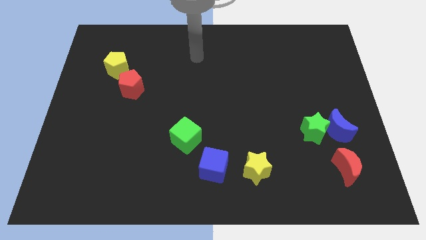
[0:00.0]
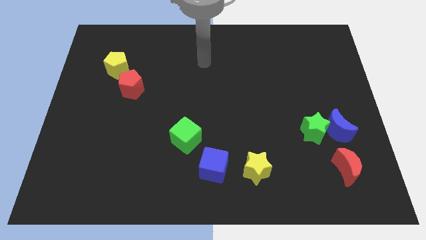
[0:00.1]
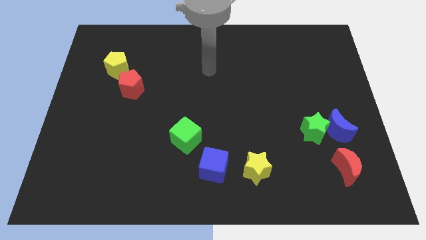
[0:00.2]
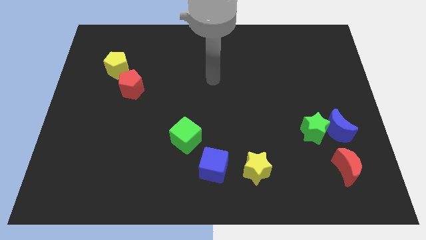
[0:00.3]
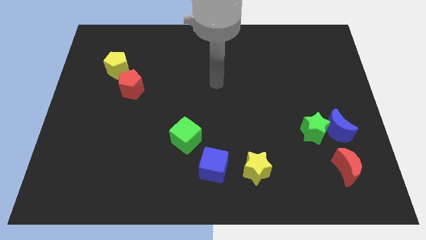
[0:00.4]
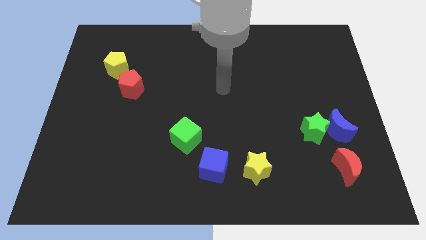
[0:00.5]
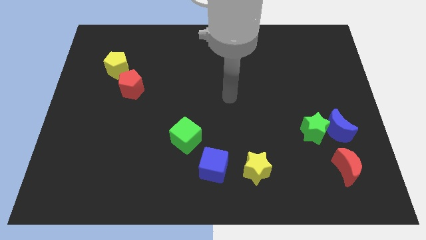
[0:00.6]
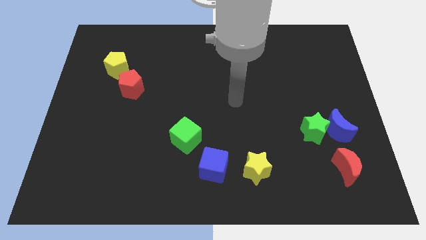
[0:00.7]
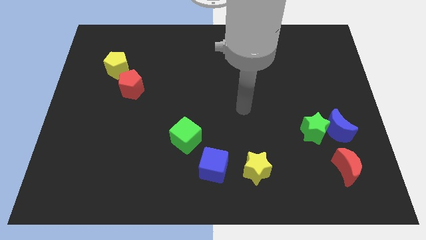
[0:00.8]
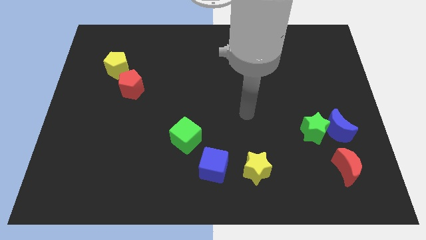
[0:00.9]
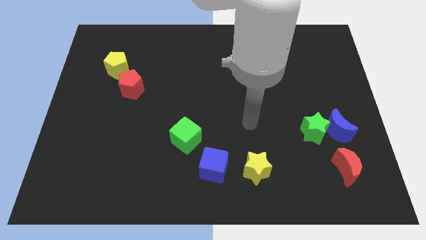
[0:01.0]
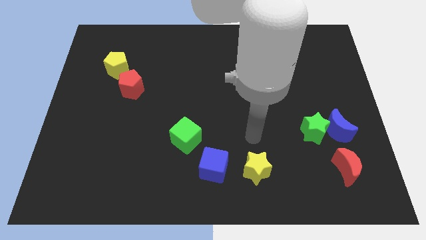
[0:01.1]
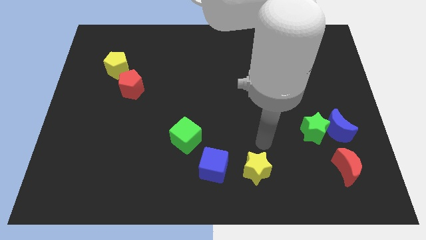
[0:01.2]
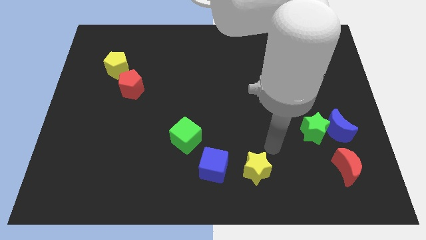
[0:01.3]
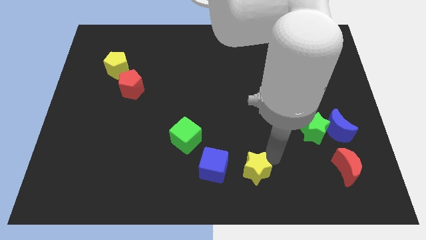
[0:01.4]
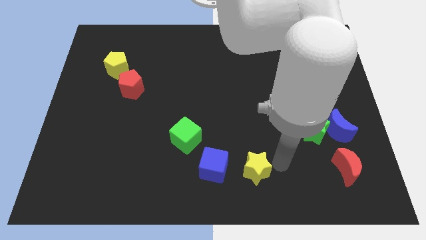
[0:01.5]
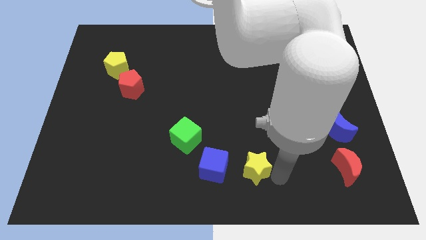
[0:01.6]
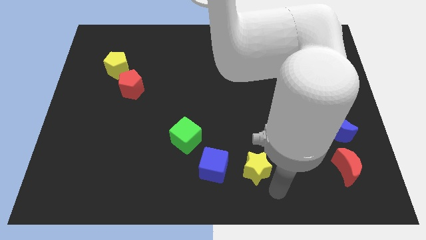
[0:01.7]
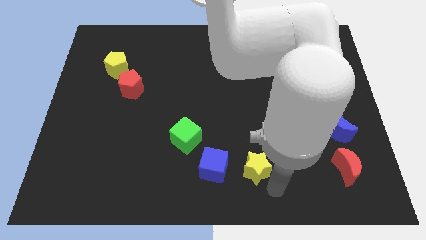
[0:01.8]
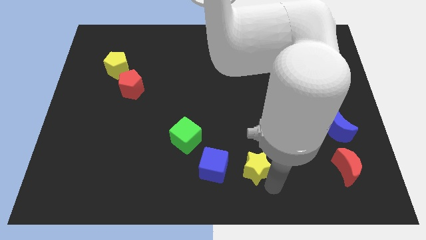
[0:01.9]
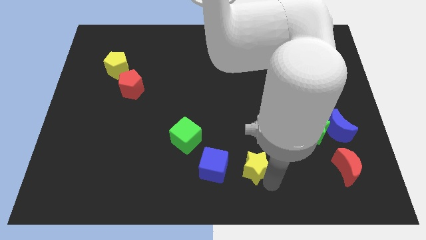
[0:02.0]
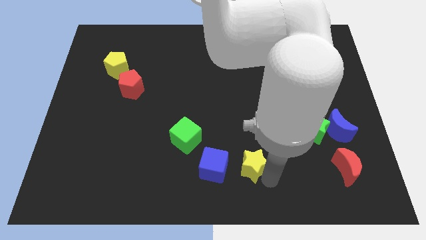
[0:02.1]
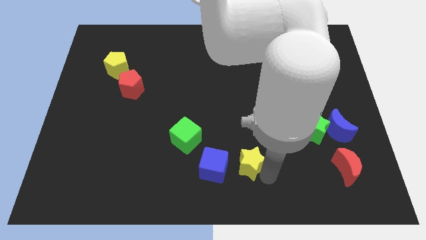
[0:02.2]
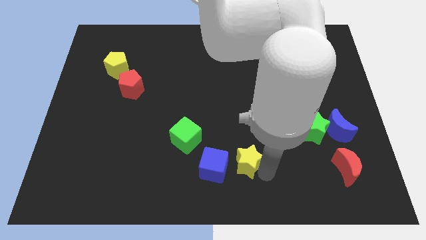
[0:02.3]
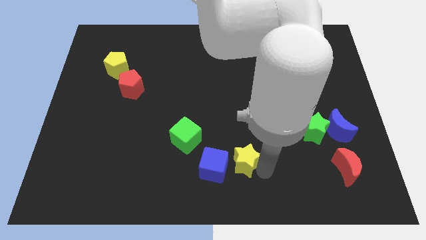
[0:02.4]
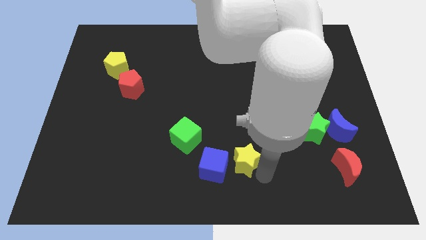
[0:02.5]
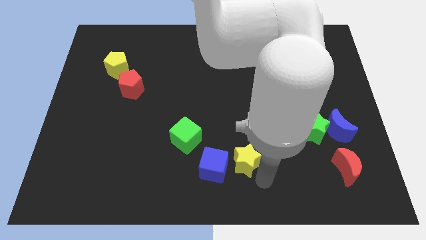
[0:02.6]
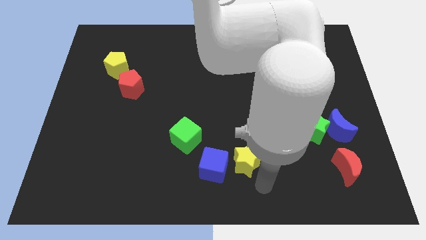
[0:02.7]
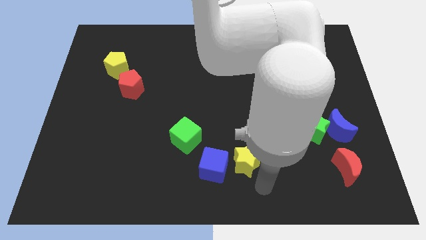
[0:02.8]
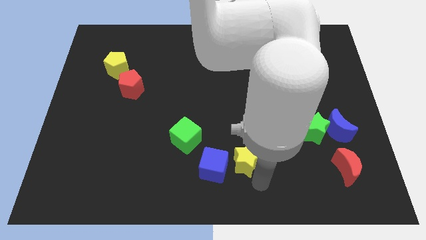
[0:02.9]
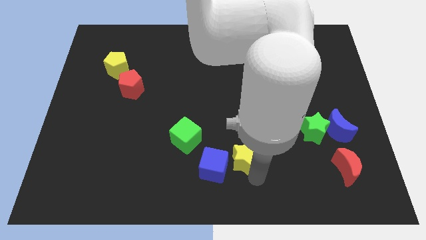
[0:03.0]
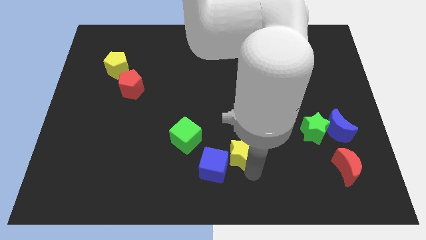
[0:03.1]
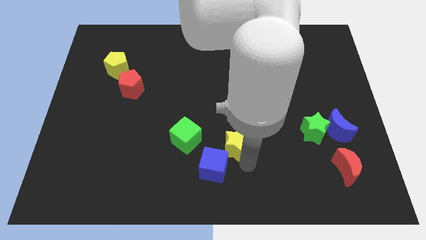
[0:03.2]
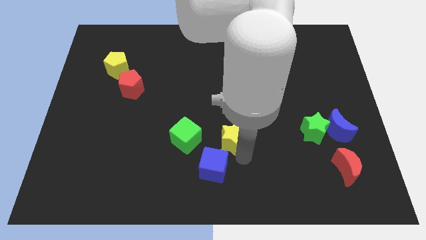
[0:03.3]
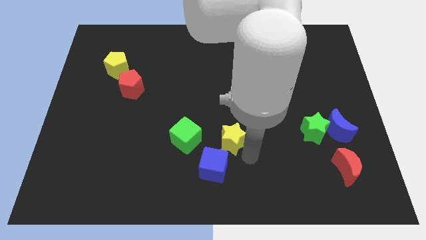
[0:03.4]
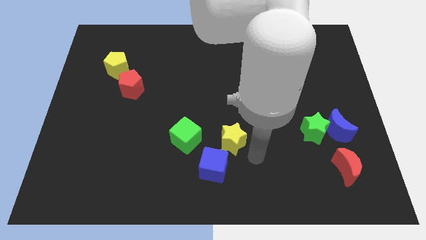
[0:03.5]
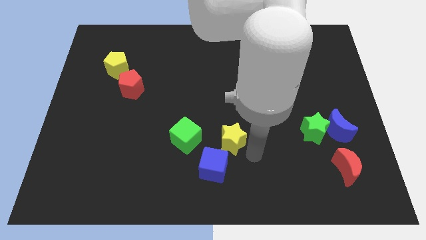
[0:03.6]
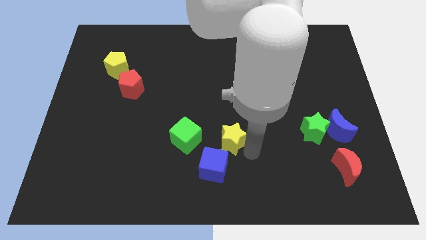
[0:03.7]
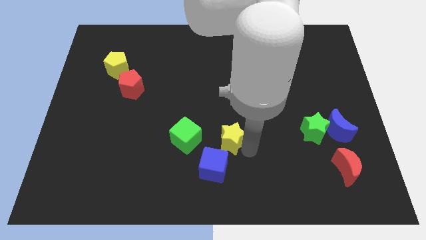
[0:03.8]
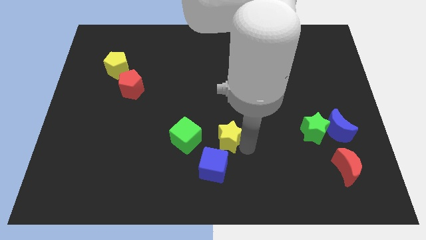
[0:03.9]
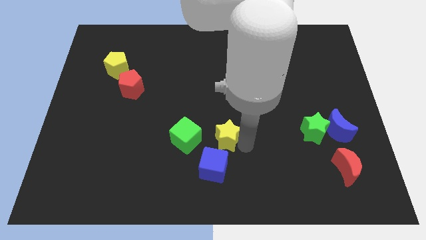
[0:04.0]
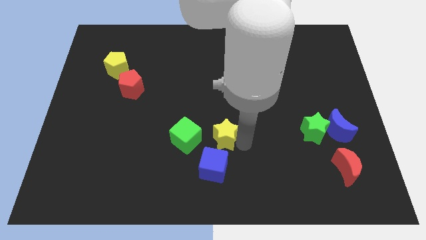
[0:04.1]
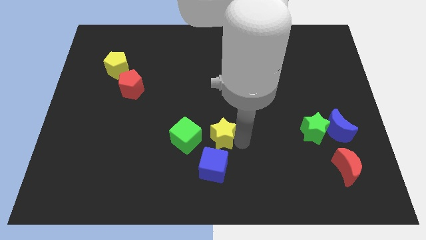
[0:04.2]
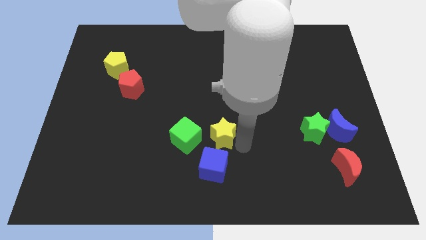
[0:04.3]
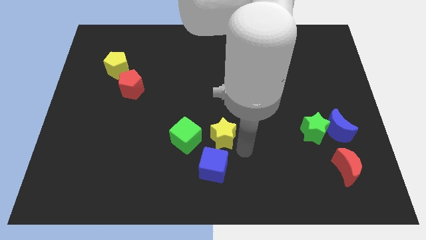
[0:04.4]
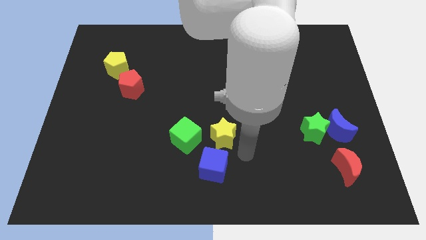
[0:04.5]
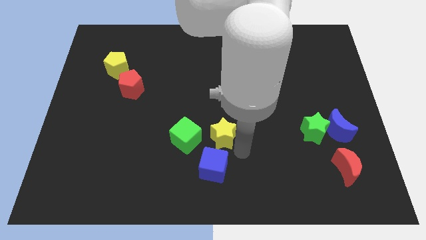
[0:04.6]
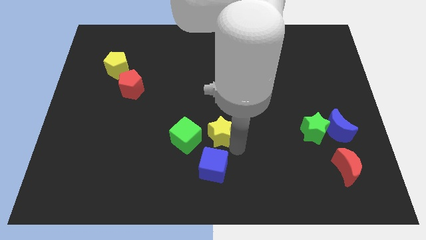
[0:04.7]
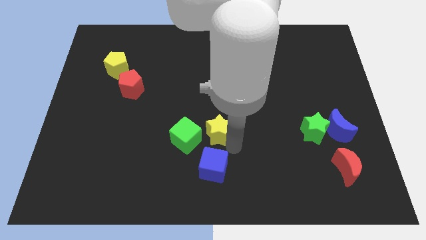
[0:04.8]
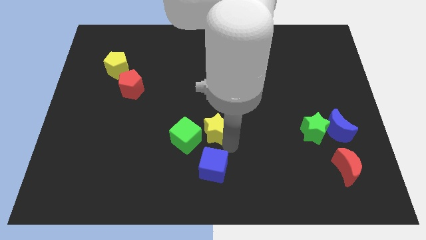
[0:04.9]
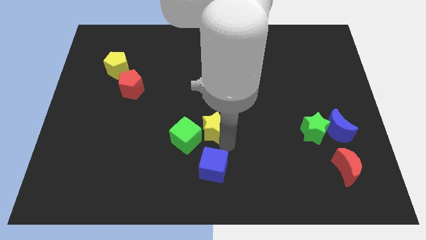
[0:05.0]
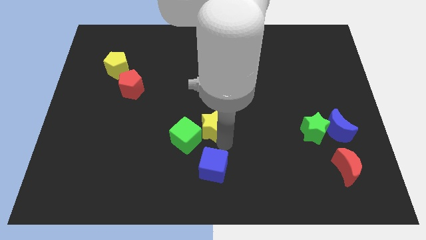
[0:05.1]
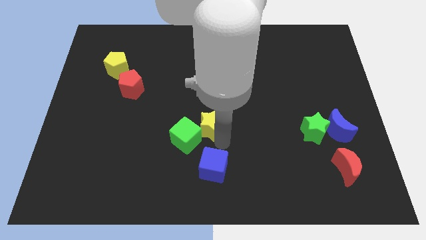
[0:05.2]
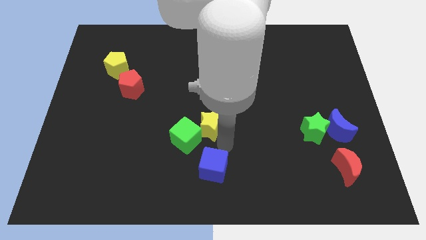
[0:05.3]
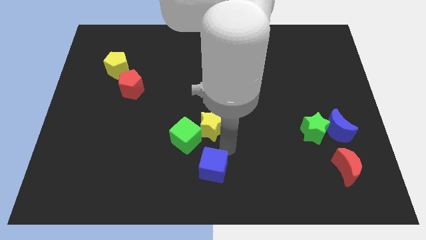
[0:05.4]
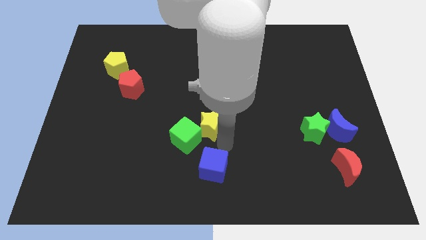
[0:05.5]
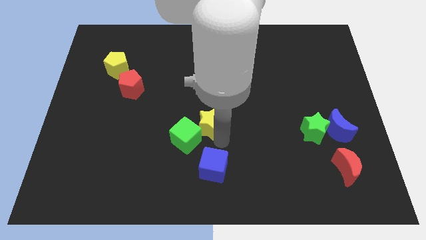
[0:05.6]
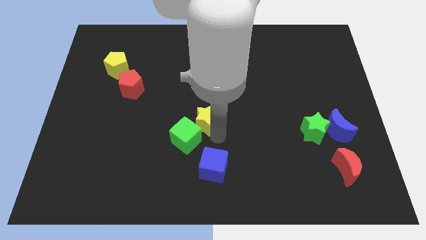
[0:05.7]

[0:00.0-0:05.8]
slide the yellow star to the top of the green cube

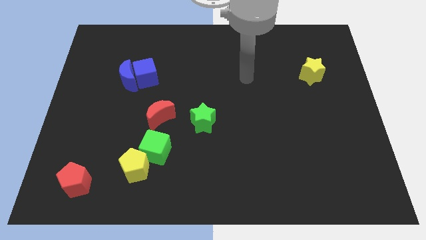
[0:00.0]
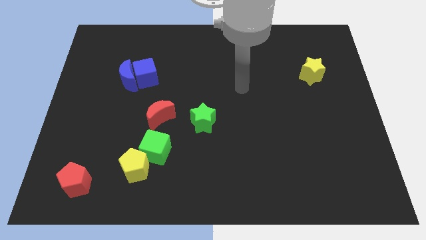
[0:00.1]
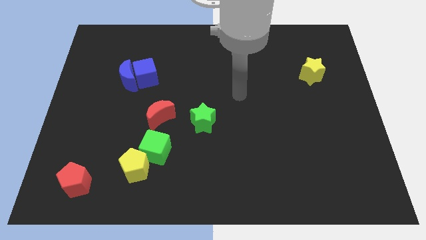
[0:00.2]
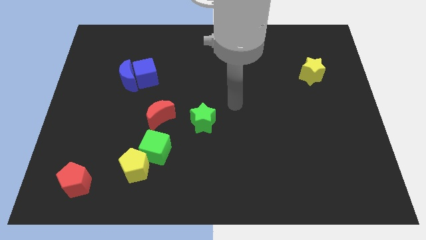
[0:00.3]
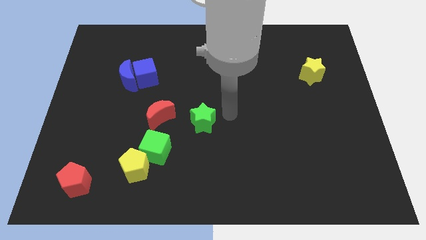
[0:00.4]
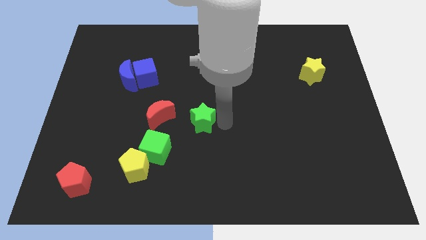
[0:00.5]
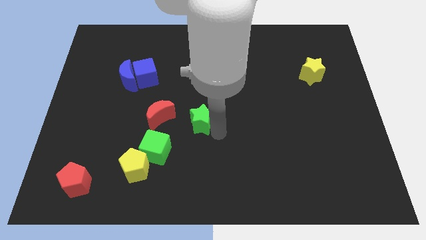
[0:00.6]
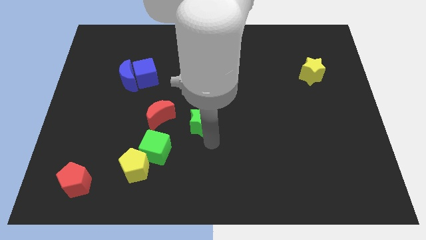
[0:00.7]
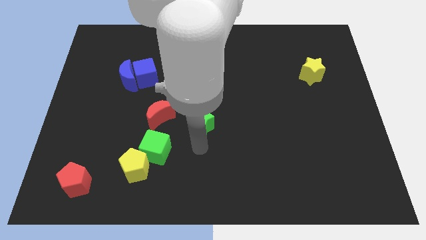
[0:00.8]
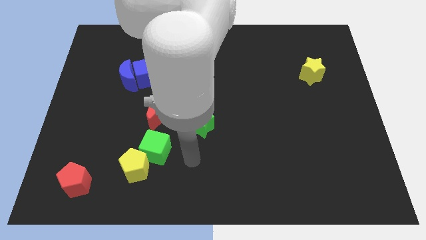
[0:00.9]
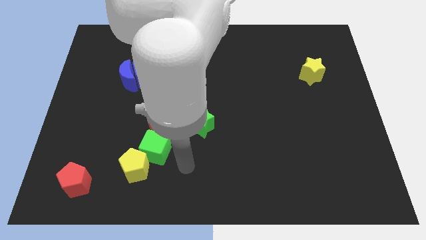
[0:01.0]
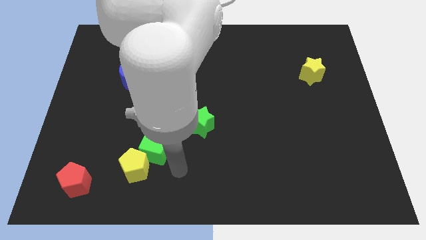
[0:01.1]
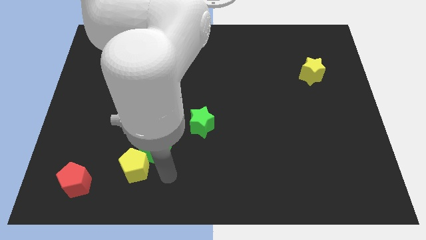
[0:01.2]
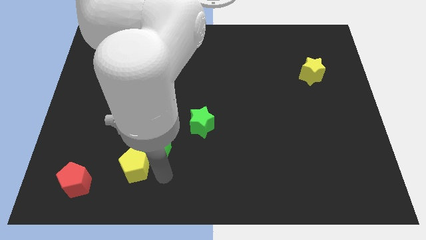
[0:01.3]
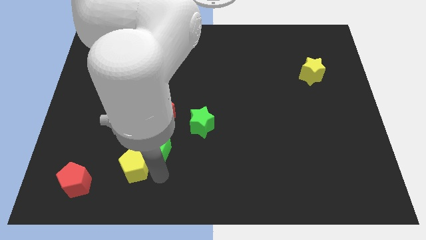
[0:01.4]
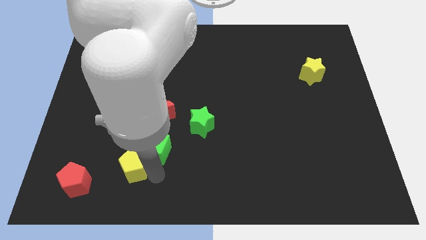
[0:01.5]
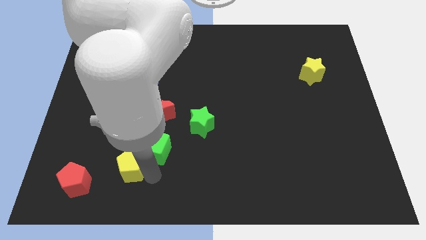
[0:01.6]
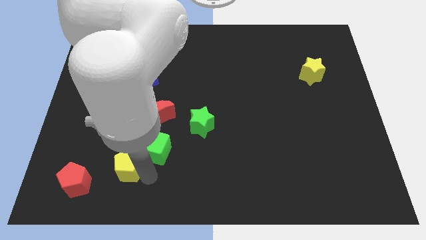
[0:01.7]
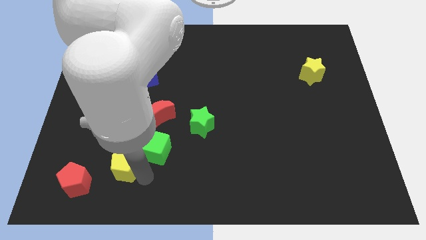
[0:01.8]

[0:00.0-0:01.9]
move the yellow pentagon diagonally up and to the right of the red pentagon

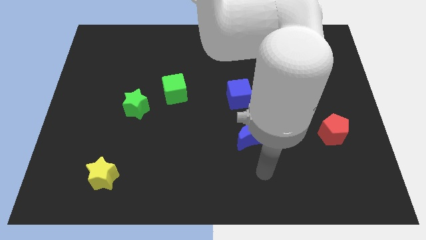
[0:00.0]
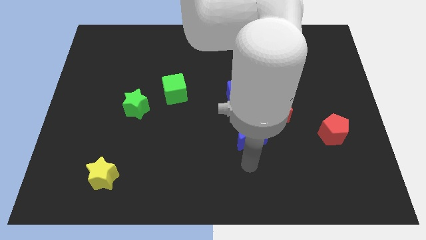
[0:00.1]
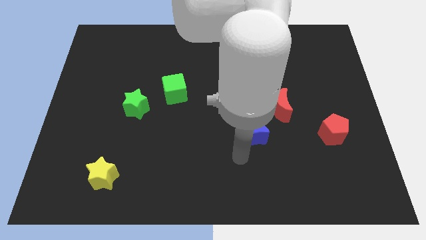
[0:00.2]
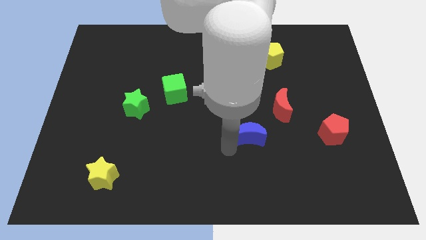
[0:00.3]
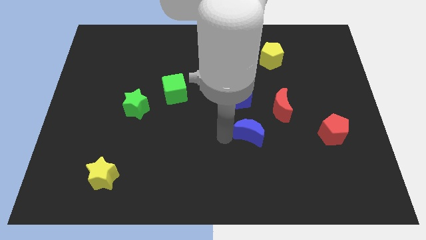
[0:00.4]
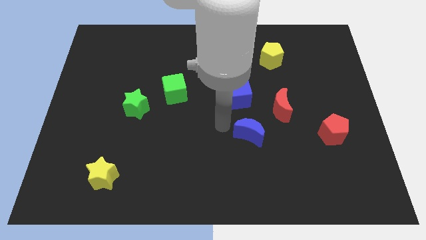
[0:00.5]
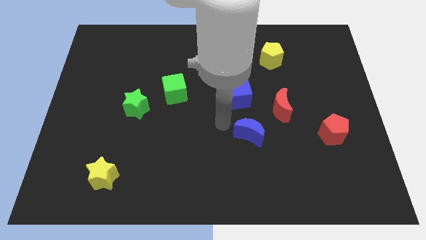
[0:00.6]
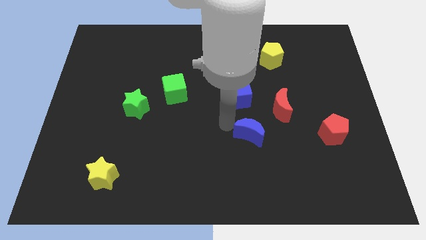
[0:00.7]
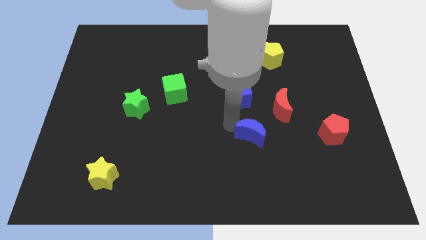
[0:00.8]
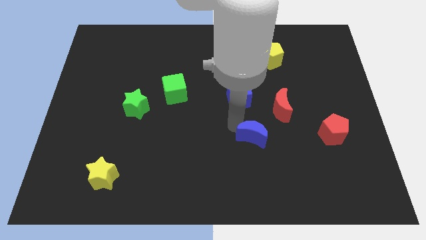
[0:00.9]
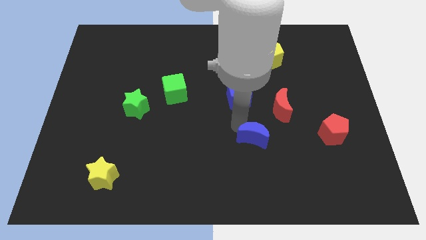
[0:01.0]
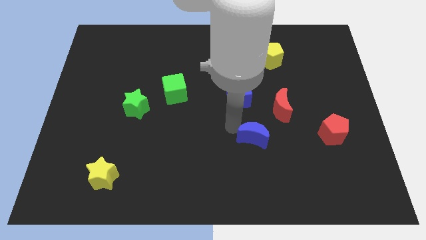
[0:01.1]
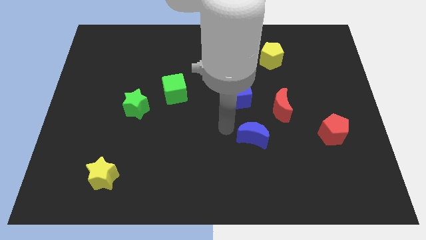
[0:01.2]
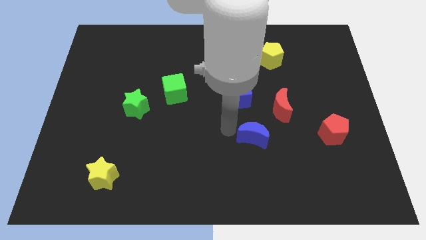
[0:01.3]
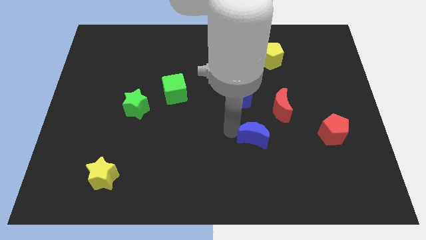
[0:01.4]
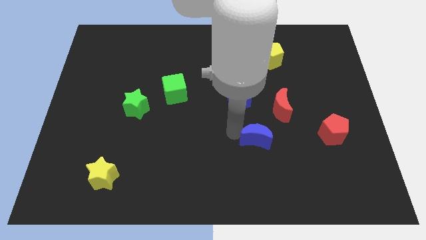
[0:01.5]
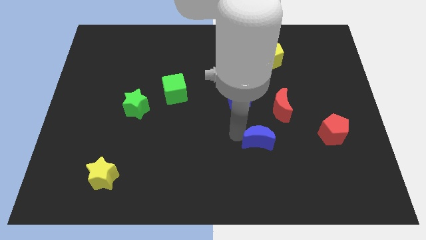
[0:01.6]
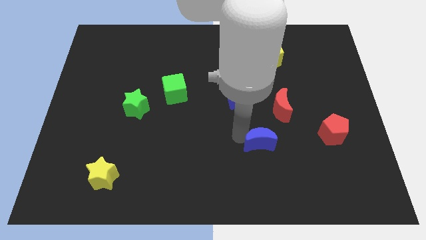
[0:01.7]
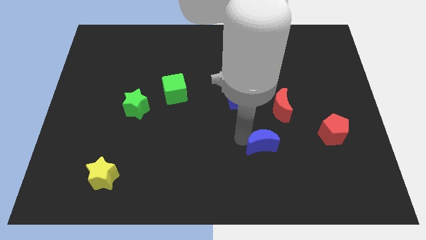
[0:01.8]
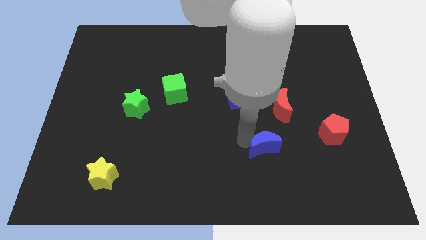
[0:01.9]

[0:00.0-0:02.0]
push the blue moon below the red moon
